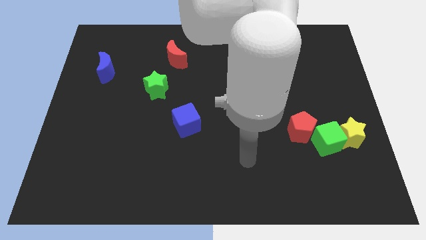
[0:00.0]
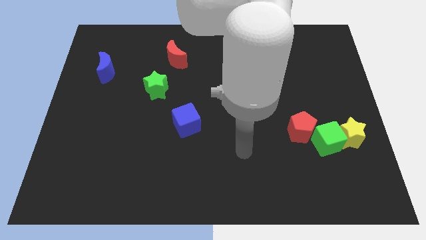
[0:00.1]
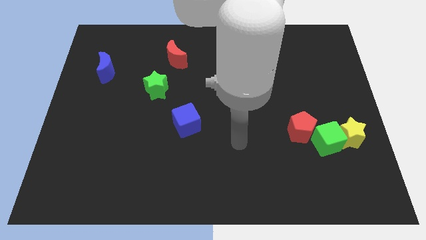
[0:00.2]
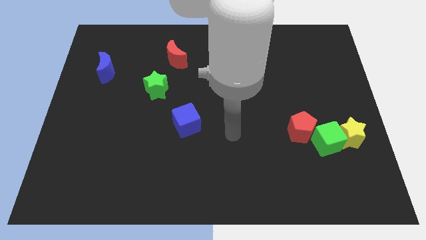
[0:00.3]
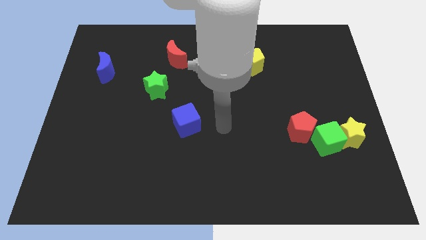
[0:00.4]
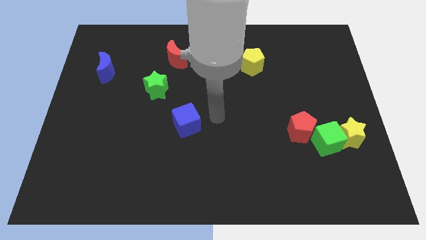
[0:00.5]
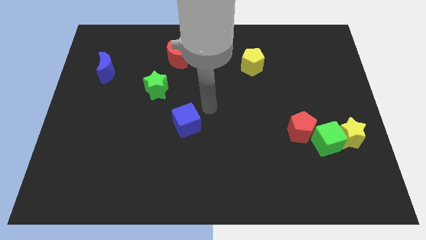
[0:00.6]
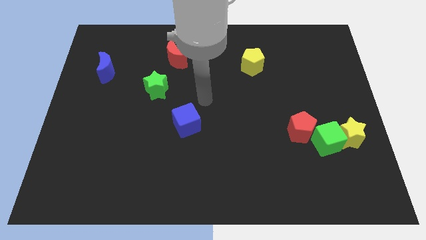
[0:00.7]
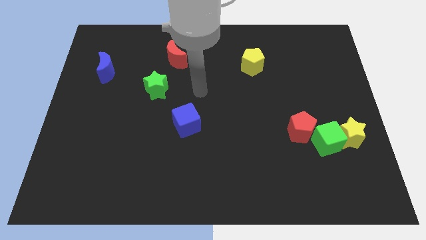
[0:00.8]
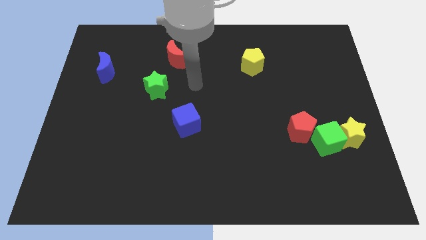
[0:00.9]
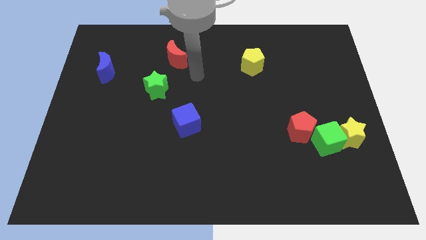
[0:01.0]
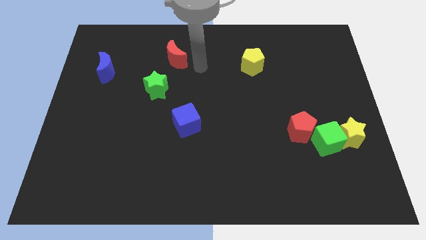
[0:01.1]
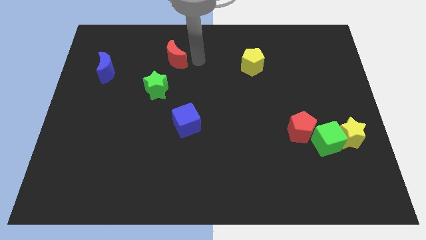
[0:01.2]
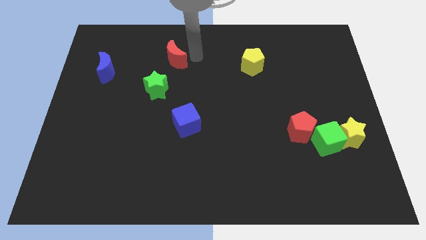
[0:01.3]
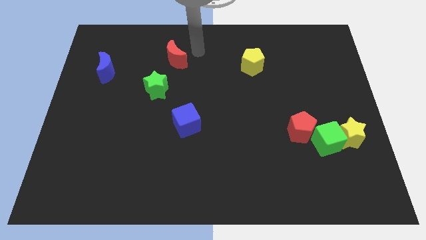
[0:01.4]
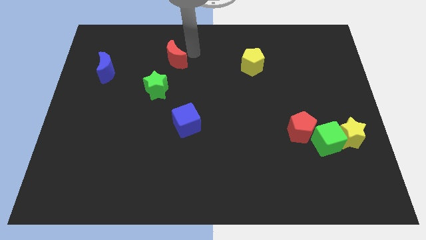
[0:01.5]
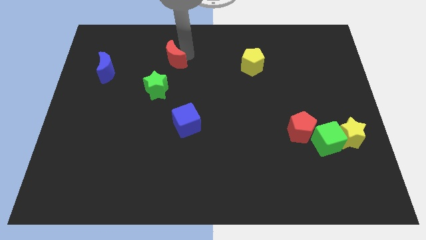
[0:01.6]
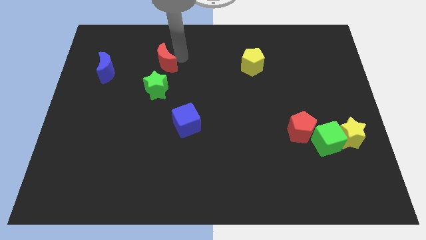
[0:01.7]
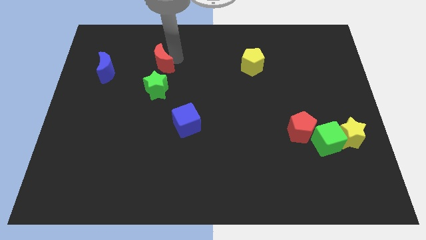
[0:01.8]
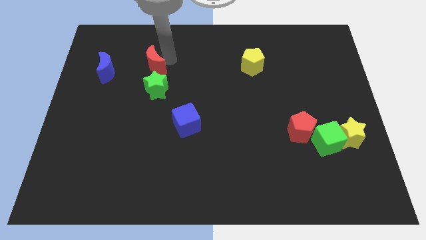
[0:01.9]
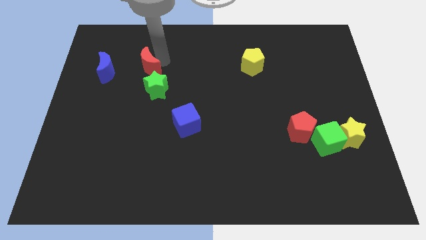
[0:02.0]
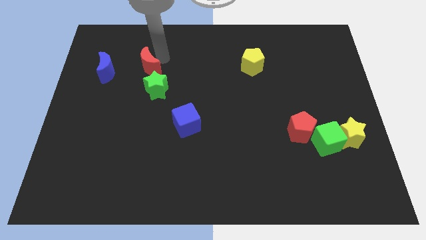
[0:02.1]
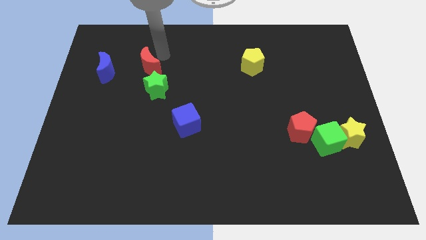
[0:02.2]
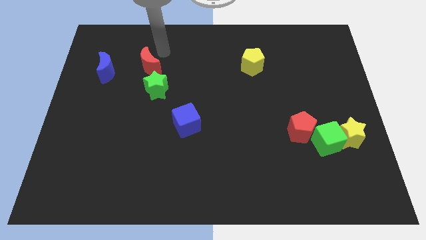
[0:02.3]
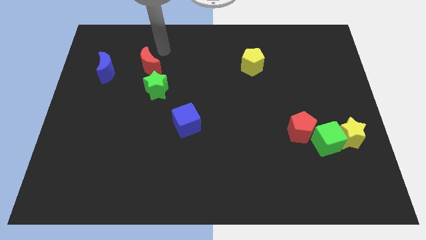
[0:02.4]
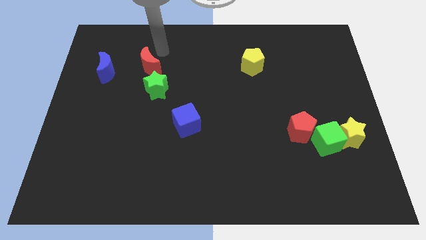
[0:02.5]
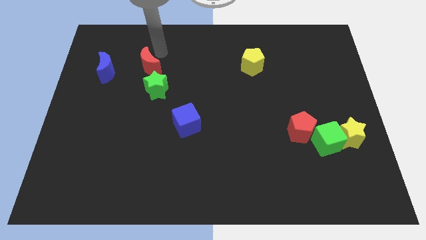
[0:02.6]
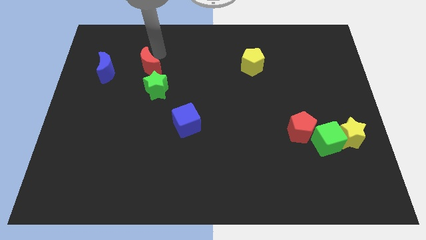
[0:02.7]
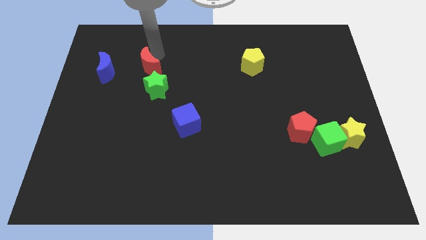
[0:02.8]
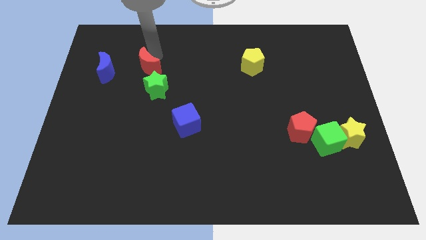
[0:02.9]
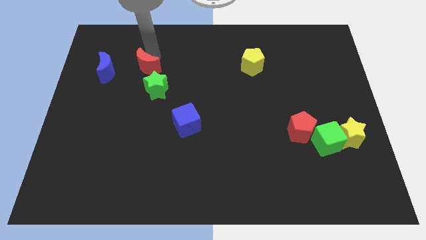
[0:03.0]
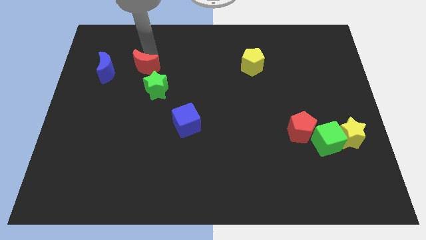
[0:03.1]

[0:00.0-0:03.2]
slightly slide the red moon downwards and left

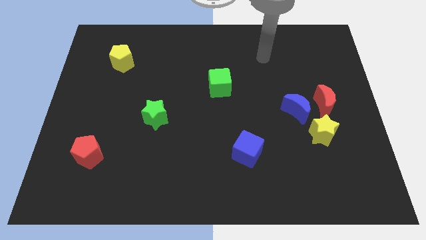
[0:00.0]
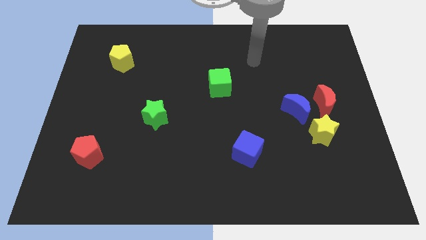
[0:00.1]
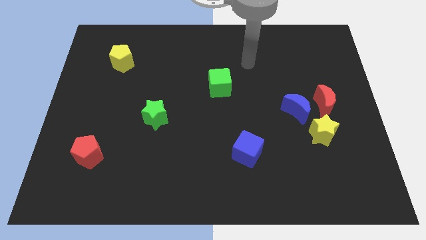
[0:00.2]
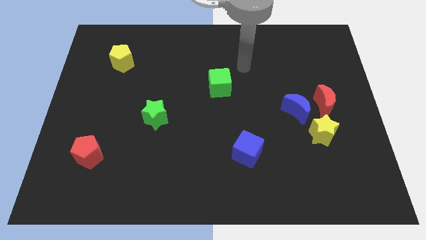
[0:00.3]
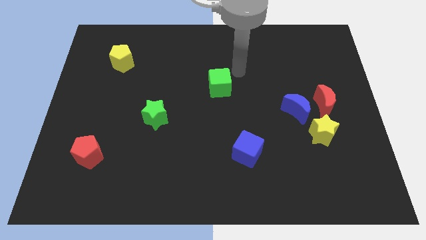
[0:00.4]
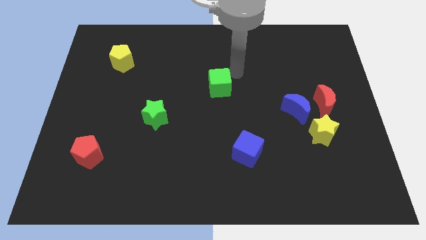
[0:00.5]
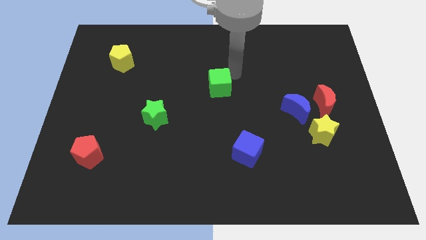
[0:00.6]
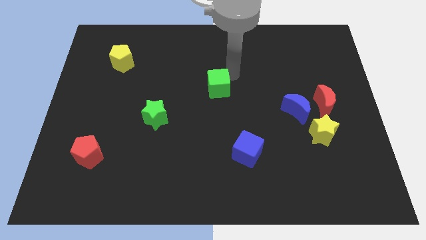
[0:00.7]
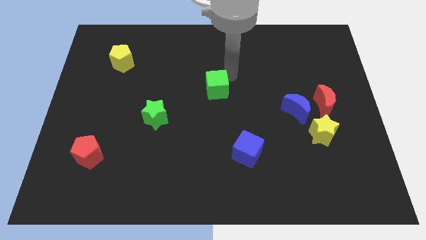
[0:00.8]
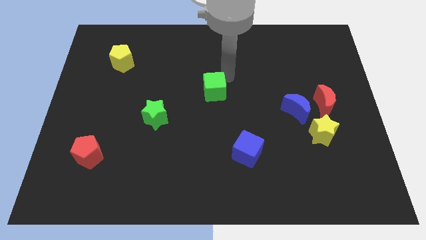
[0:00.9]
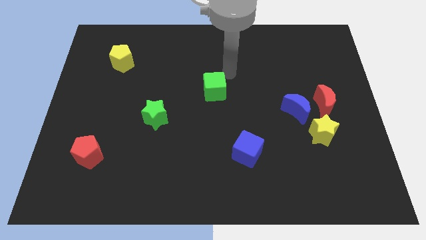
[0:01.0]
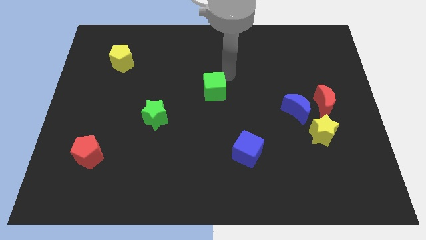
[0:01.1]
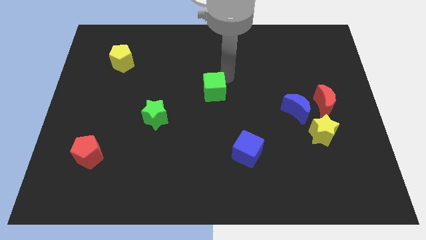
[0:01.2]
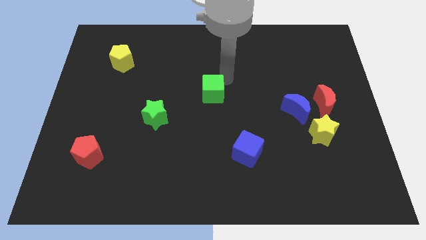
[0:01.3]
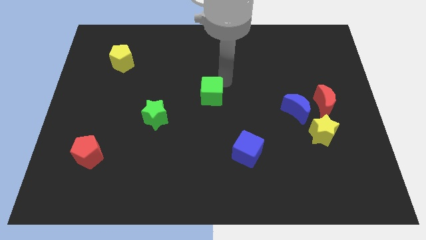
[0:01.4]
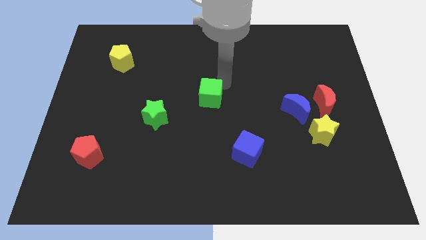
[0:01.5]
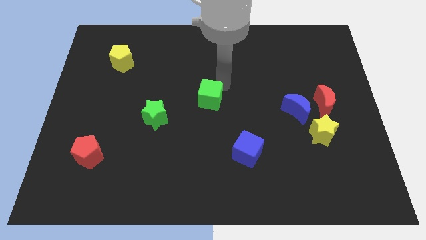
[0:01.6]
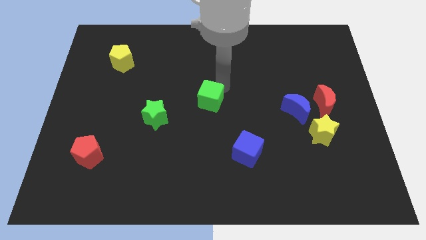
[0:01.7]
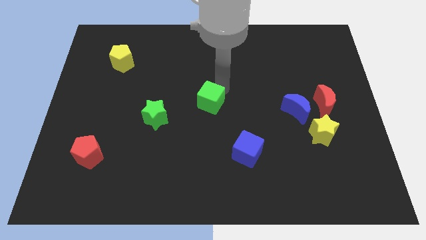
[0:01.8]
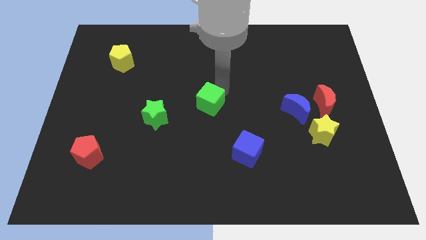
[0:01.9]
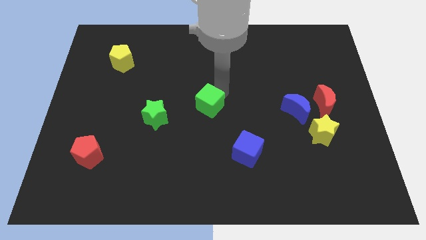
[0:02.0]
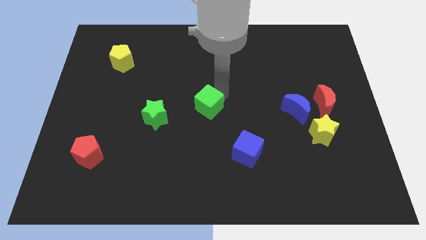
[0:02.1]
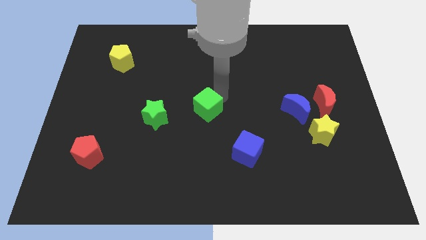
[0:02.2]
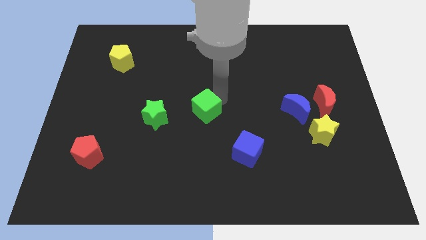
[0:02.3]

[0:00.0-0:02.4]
move the green cube a bit downwards and left diagonally

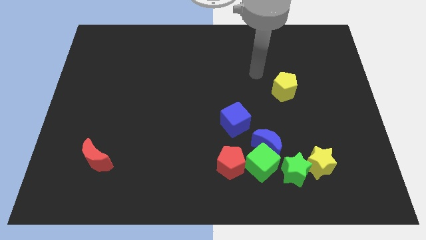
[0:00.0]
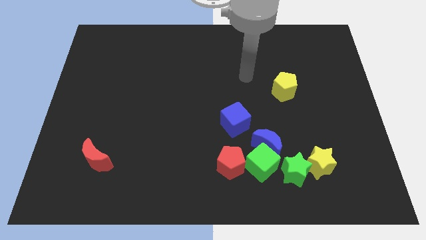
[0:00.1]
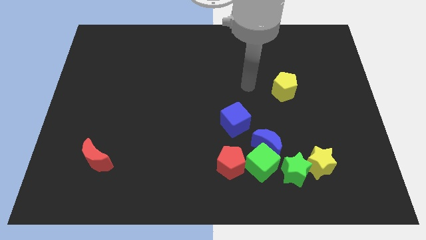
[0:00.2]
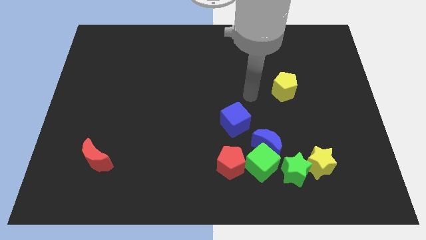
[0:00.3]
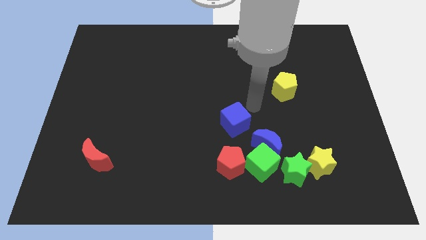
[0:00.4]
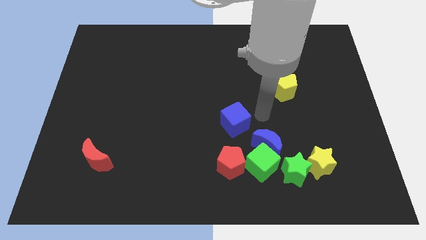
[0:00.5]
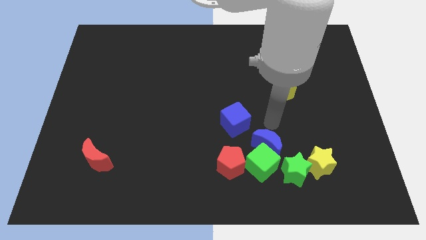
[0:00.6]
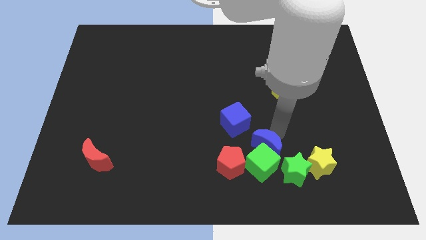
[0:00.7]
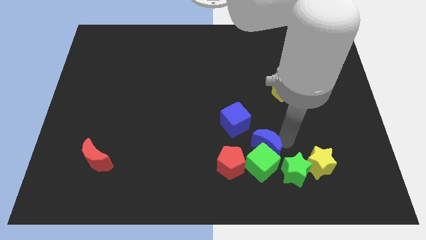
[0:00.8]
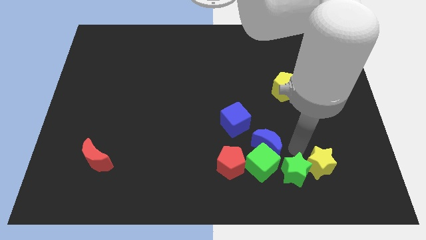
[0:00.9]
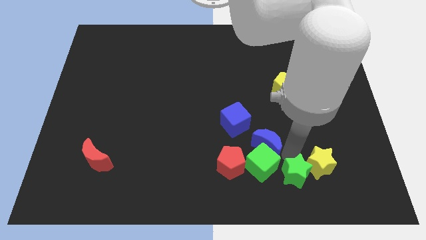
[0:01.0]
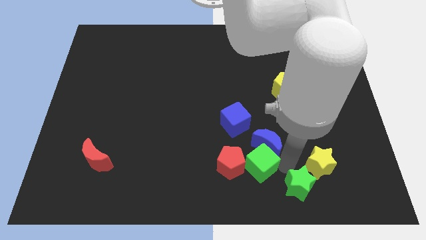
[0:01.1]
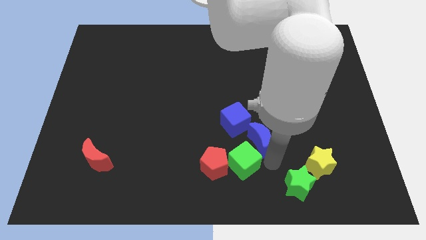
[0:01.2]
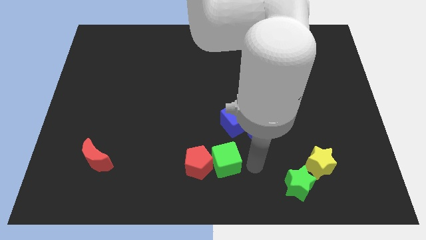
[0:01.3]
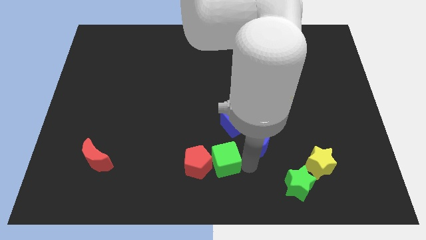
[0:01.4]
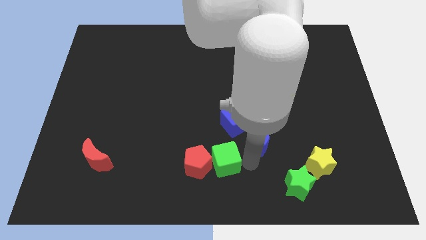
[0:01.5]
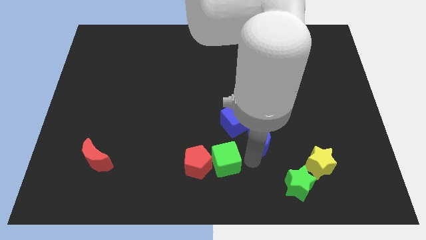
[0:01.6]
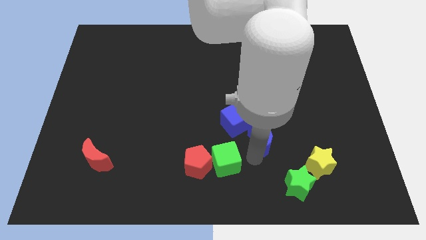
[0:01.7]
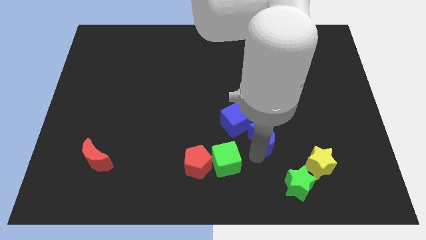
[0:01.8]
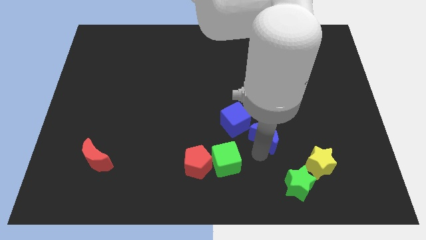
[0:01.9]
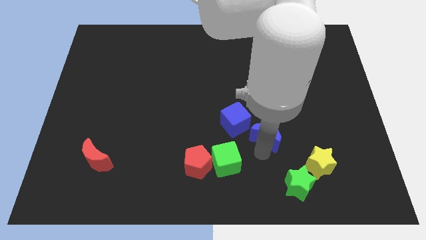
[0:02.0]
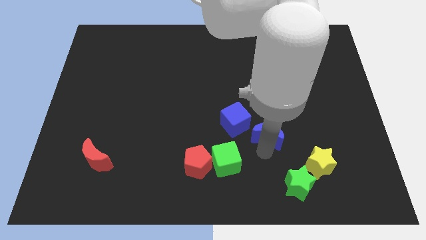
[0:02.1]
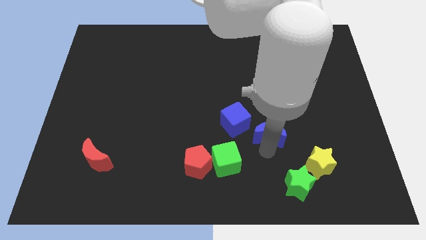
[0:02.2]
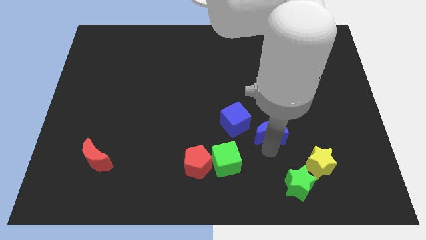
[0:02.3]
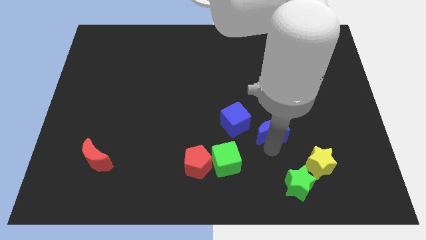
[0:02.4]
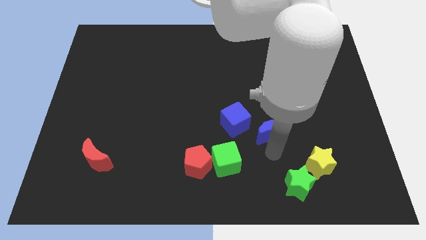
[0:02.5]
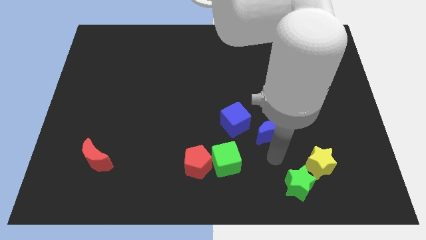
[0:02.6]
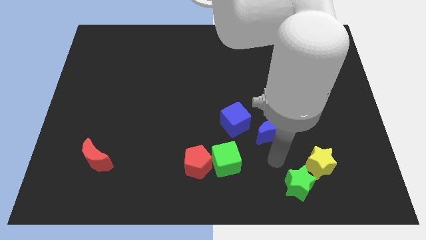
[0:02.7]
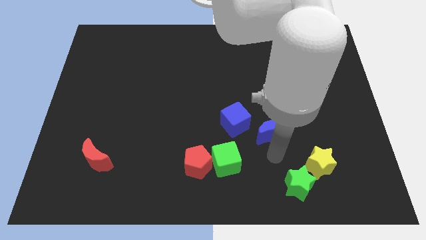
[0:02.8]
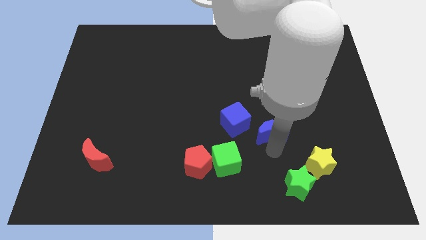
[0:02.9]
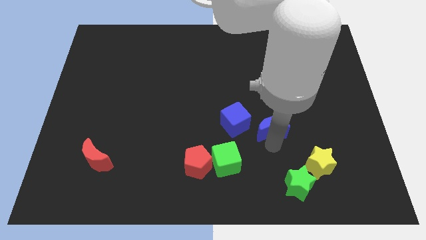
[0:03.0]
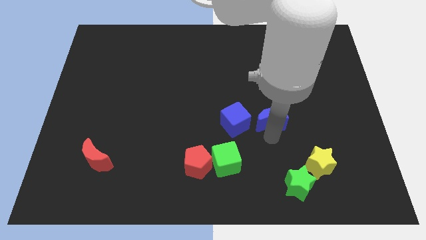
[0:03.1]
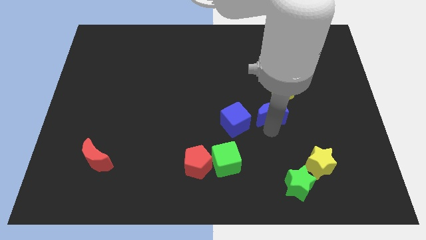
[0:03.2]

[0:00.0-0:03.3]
move the blue moon up a little
